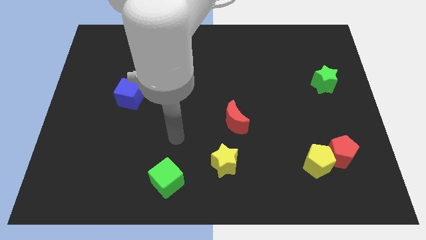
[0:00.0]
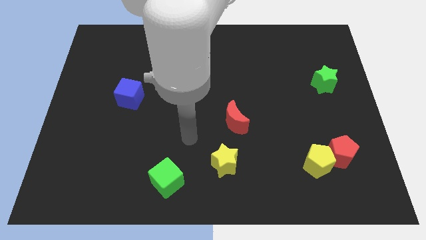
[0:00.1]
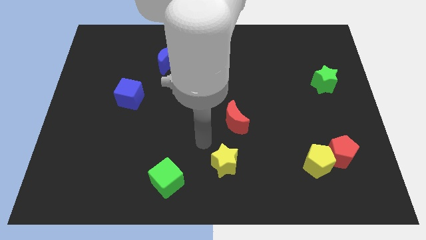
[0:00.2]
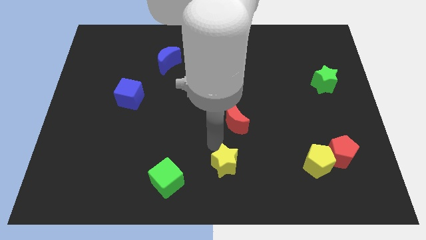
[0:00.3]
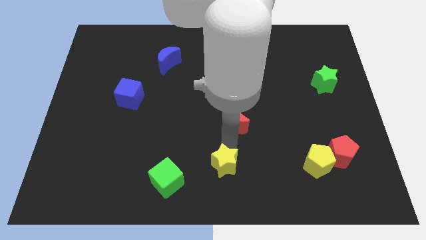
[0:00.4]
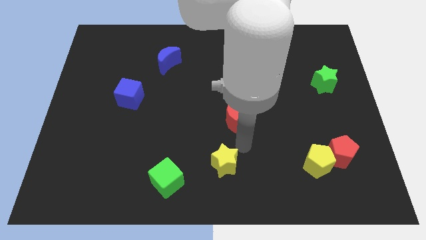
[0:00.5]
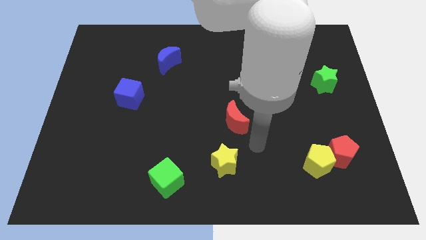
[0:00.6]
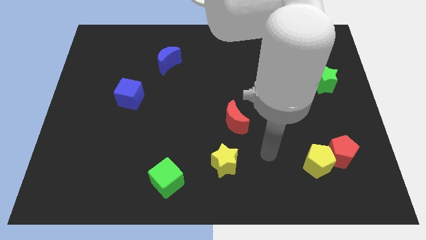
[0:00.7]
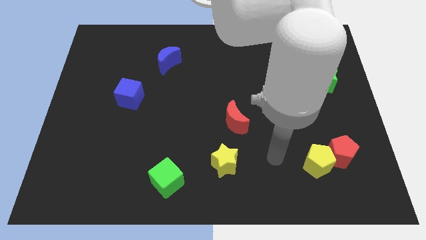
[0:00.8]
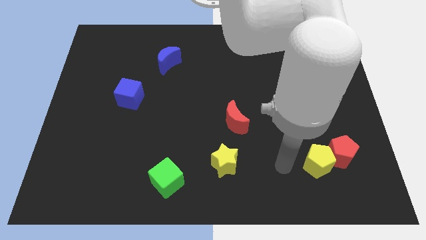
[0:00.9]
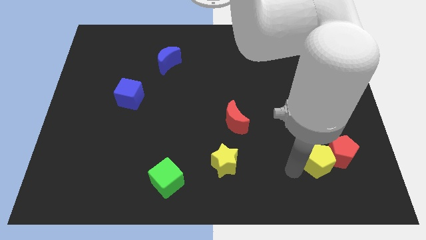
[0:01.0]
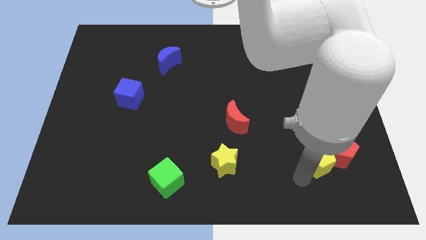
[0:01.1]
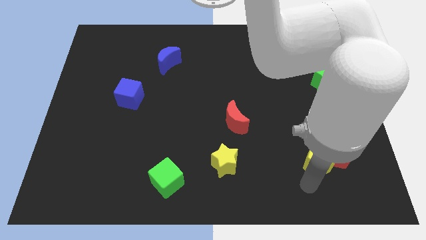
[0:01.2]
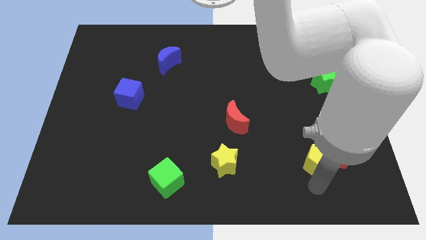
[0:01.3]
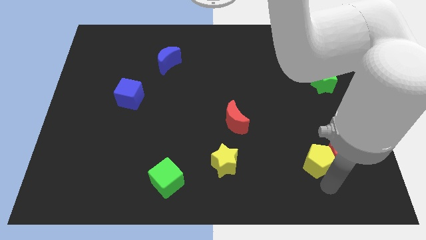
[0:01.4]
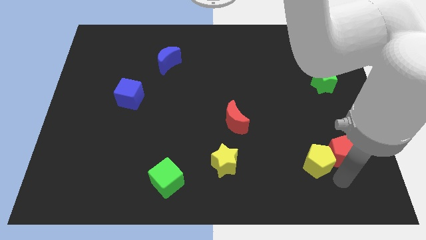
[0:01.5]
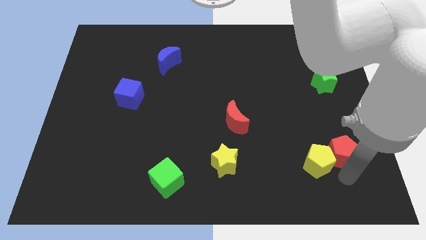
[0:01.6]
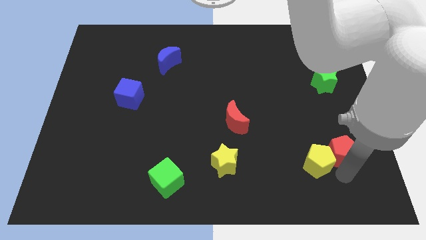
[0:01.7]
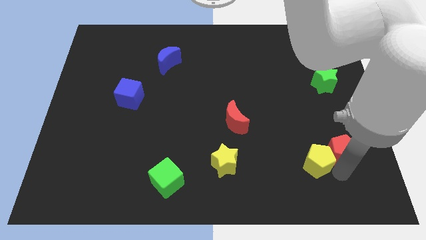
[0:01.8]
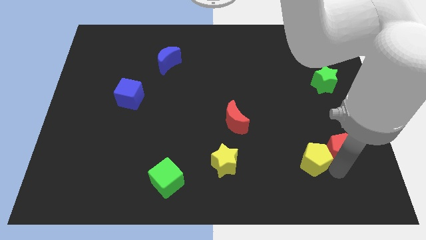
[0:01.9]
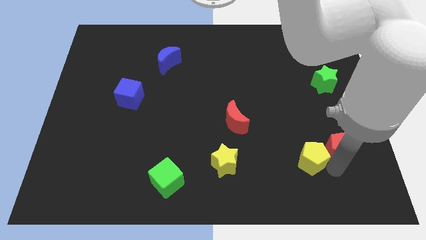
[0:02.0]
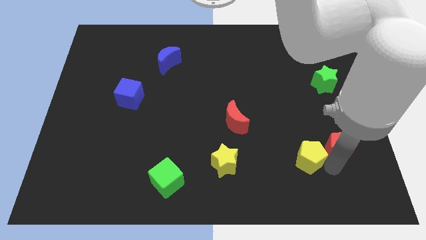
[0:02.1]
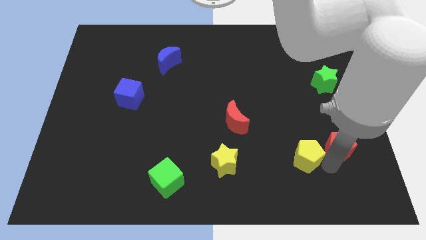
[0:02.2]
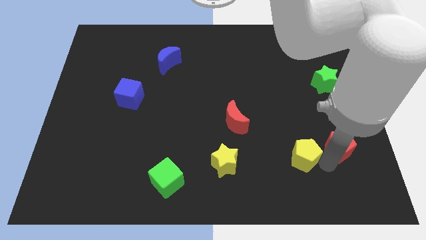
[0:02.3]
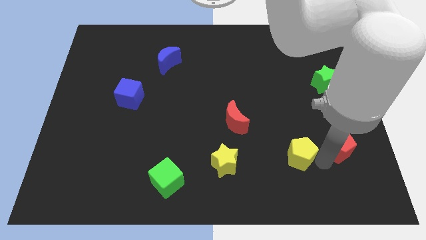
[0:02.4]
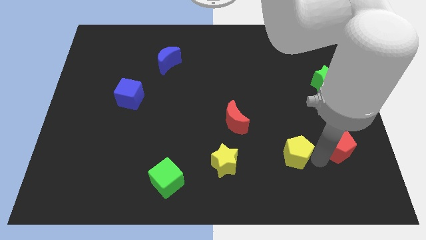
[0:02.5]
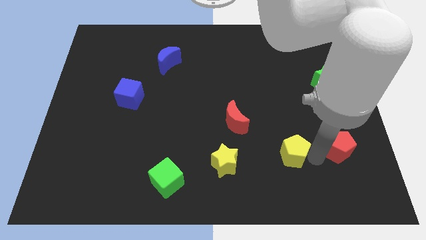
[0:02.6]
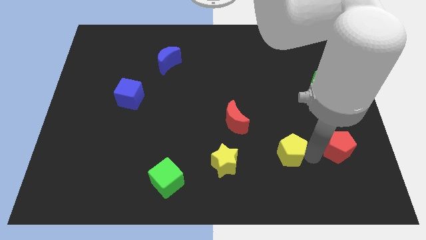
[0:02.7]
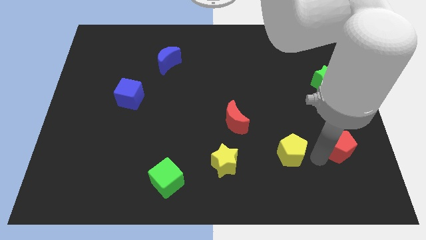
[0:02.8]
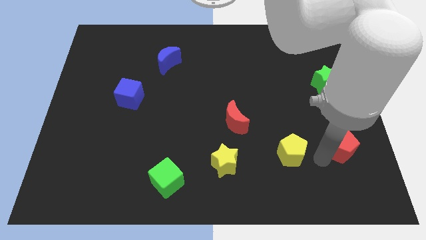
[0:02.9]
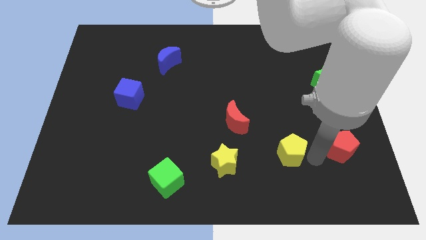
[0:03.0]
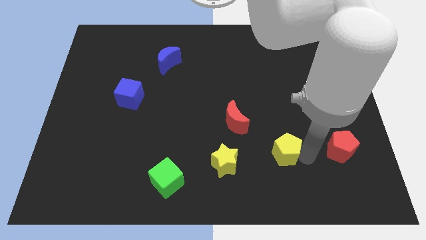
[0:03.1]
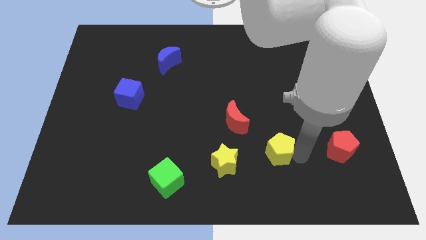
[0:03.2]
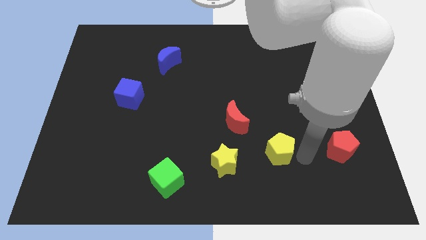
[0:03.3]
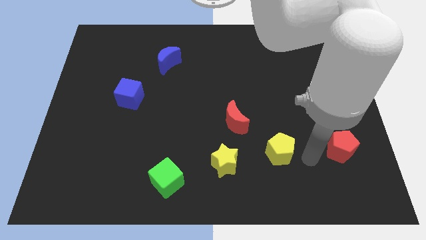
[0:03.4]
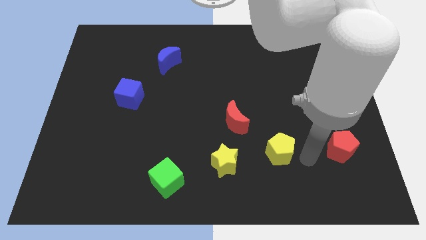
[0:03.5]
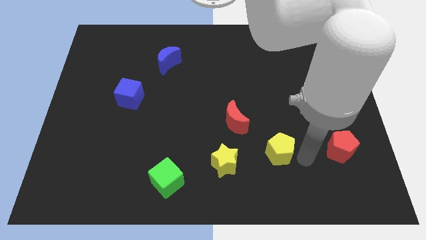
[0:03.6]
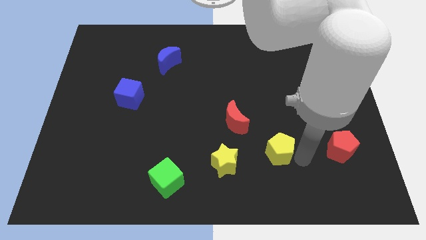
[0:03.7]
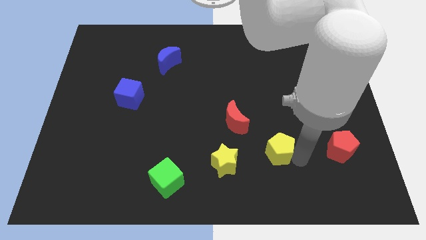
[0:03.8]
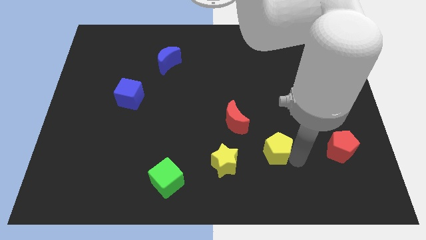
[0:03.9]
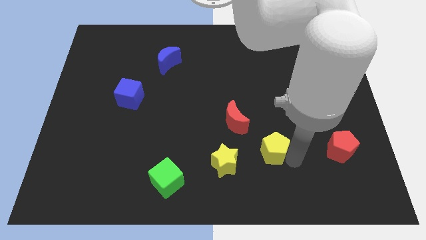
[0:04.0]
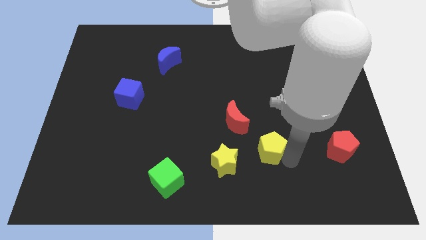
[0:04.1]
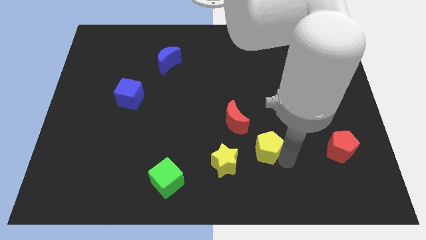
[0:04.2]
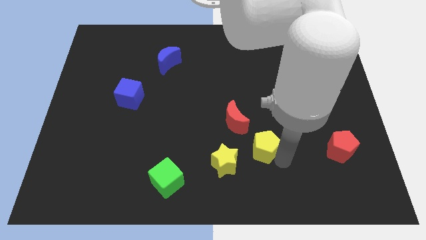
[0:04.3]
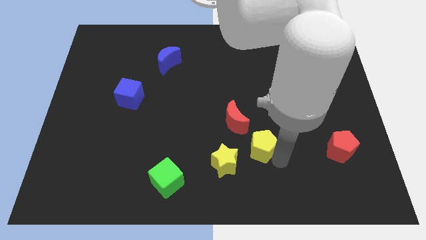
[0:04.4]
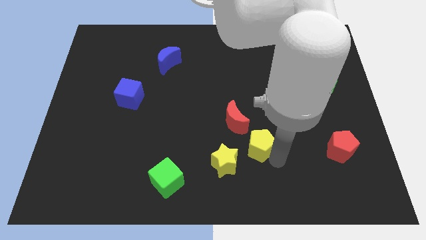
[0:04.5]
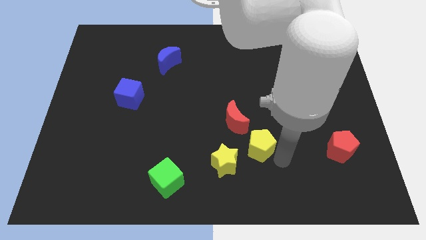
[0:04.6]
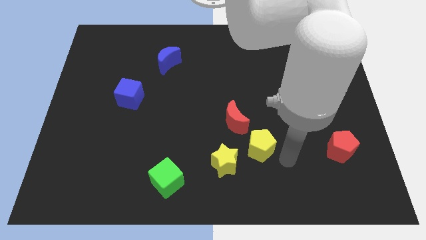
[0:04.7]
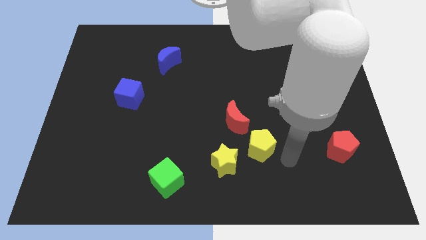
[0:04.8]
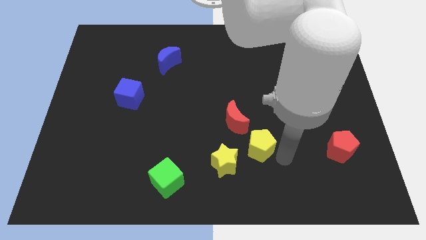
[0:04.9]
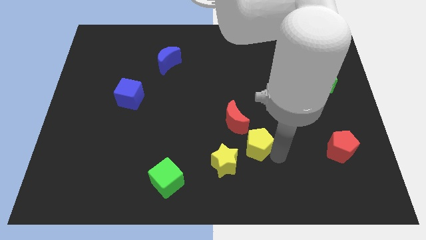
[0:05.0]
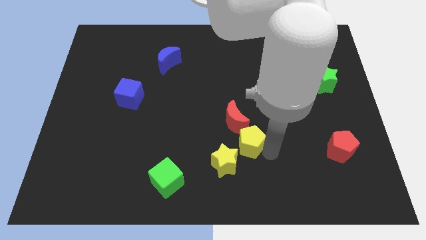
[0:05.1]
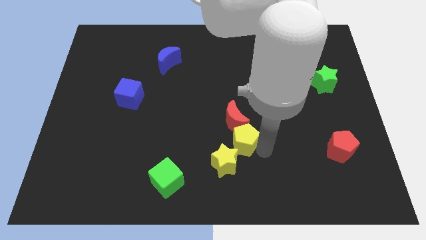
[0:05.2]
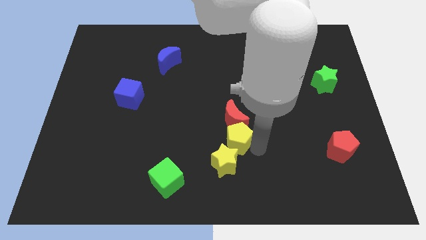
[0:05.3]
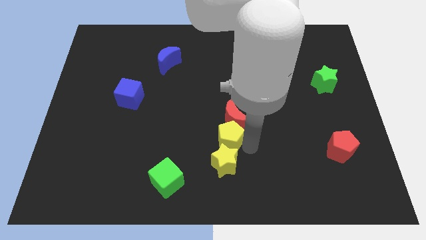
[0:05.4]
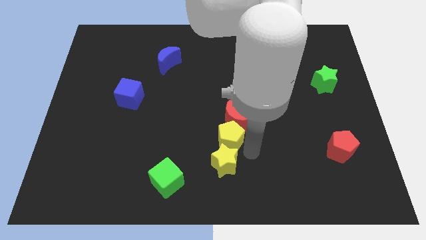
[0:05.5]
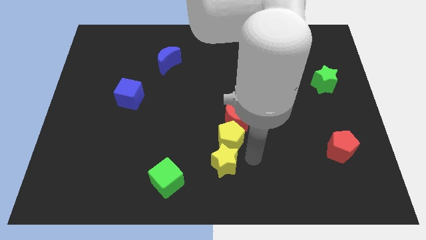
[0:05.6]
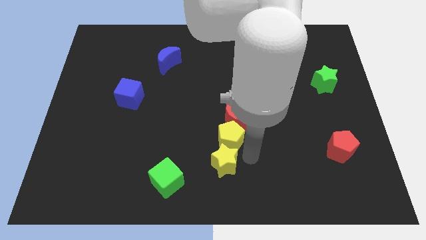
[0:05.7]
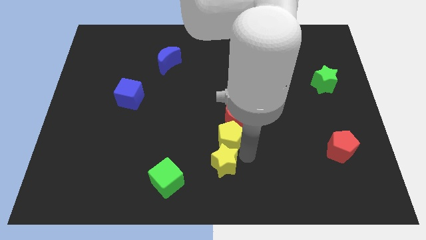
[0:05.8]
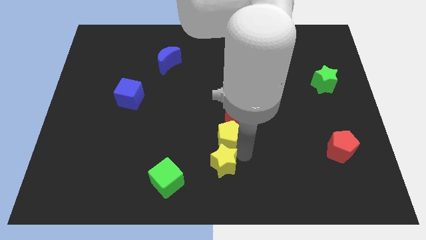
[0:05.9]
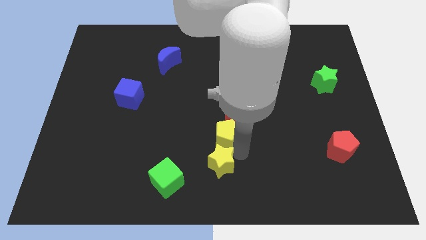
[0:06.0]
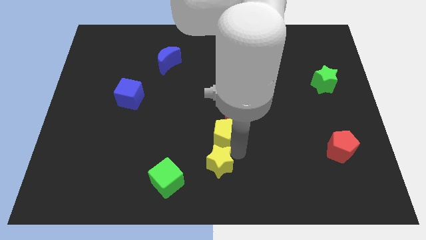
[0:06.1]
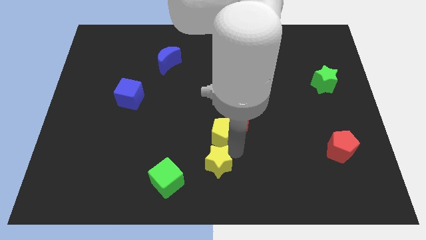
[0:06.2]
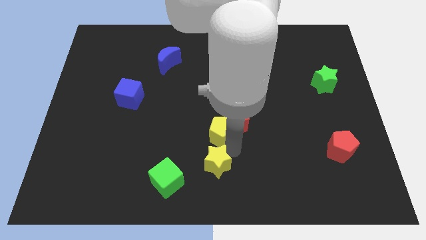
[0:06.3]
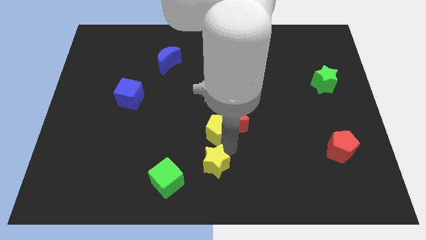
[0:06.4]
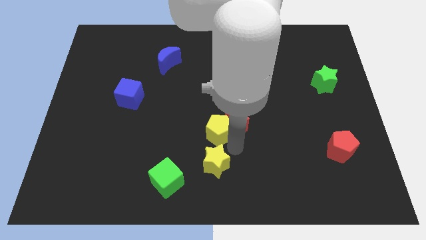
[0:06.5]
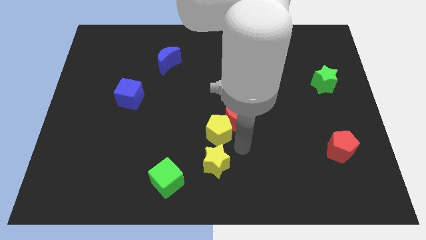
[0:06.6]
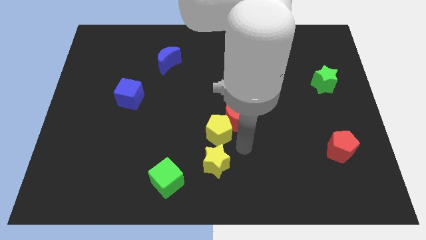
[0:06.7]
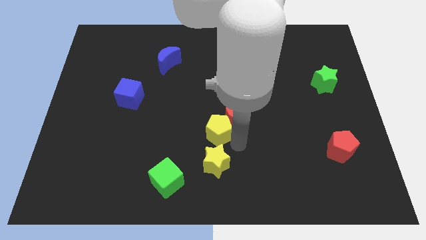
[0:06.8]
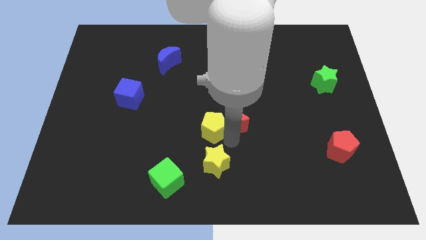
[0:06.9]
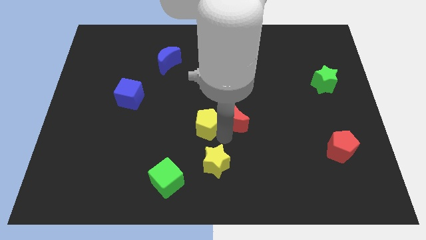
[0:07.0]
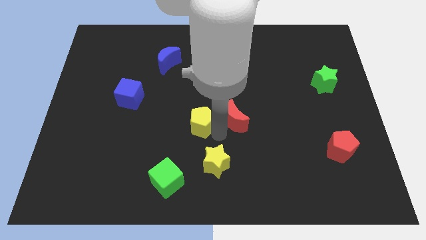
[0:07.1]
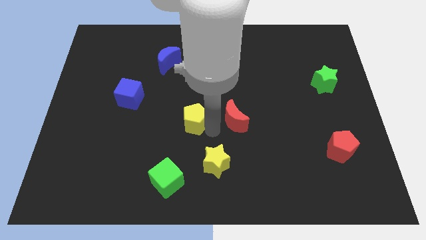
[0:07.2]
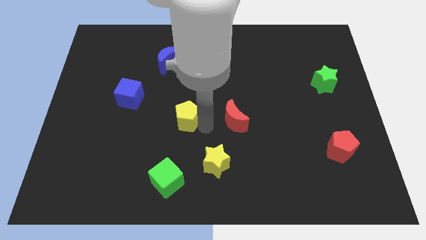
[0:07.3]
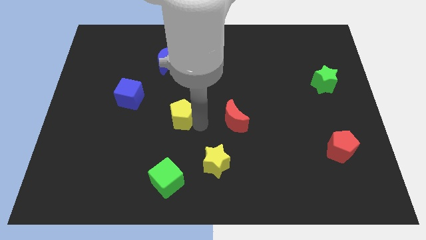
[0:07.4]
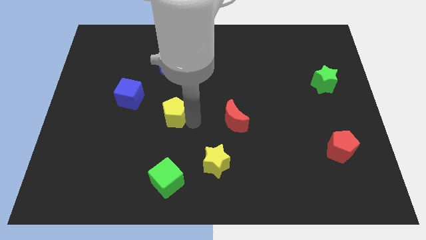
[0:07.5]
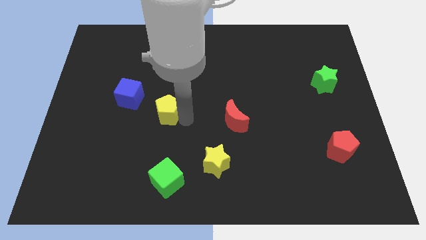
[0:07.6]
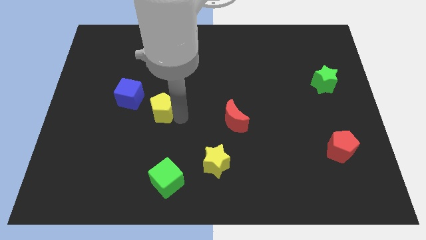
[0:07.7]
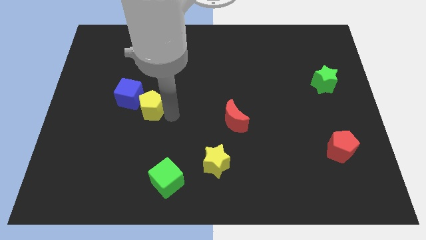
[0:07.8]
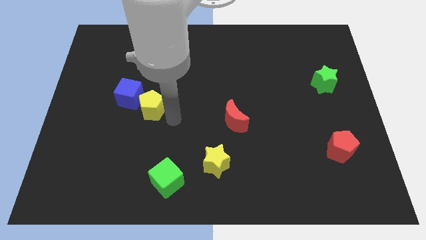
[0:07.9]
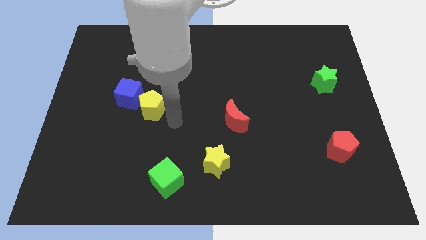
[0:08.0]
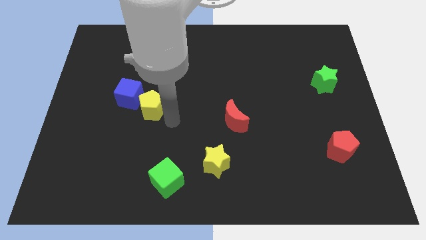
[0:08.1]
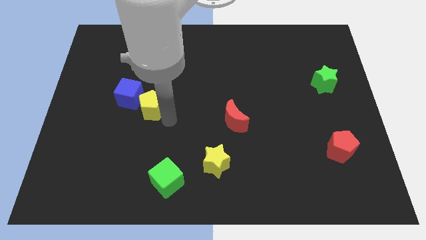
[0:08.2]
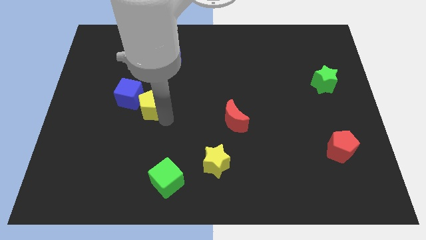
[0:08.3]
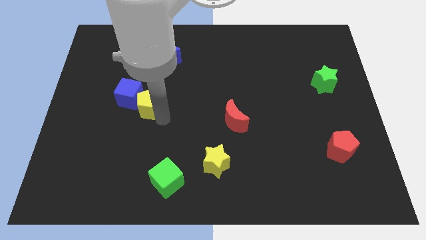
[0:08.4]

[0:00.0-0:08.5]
move the yellow pentagon next to the blue cube
